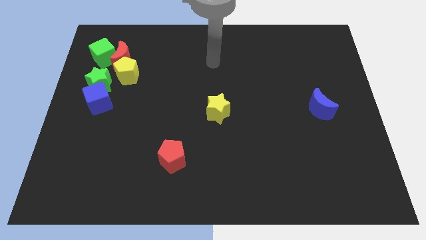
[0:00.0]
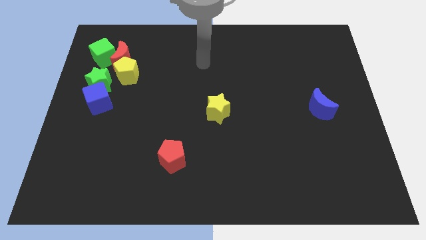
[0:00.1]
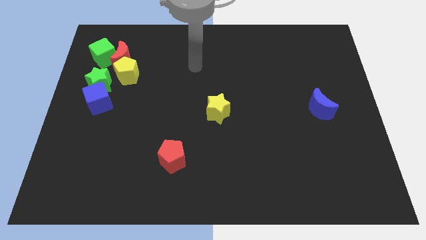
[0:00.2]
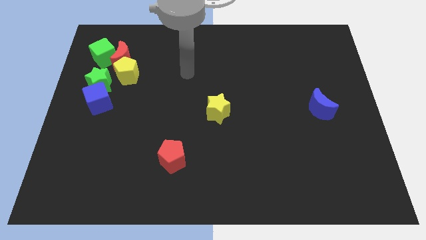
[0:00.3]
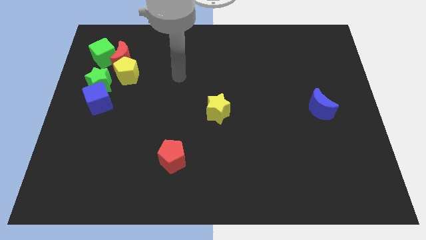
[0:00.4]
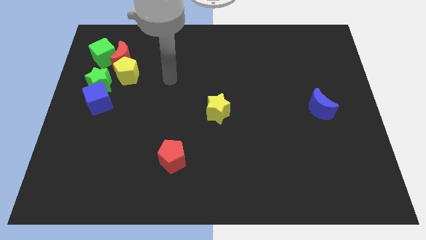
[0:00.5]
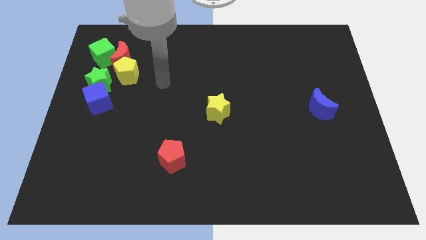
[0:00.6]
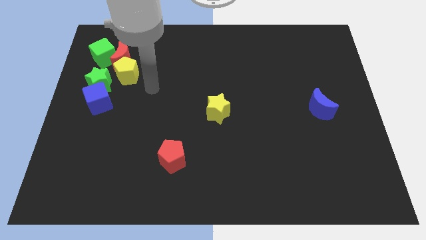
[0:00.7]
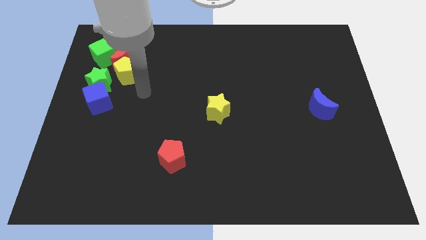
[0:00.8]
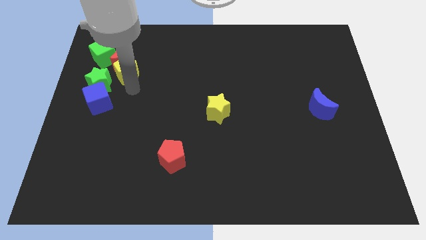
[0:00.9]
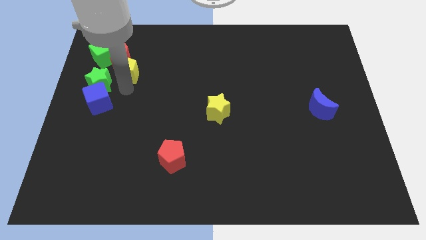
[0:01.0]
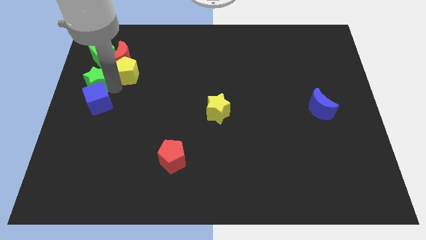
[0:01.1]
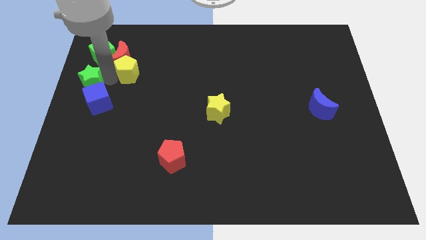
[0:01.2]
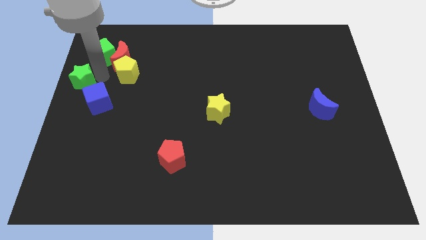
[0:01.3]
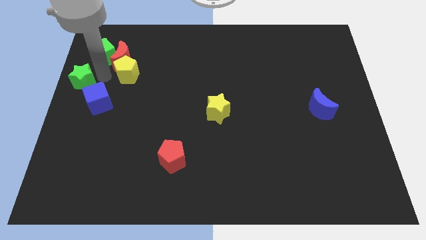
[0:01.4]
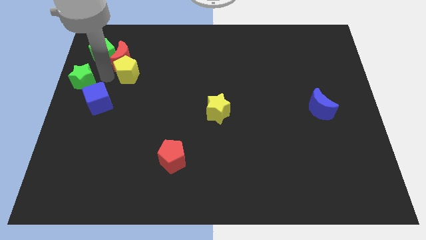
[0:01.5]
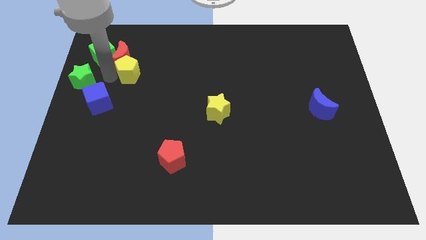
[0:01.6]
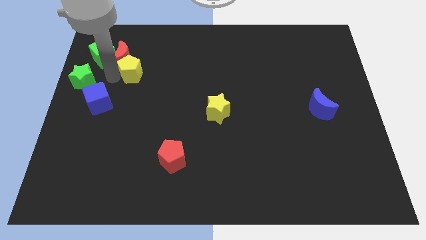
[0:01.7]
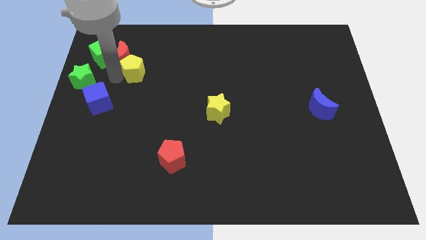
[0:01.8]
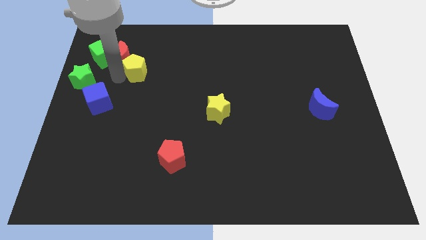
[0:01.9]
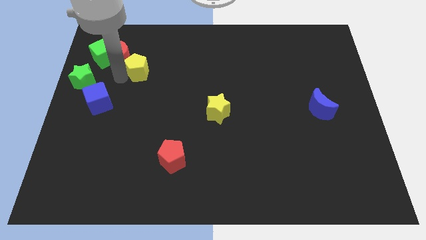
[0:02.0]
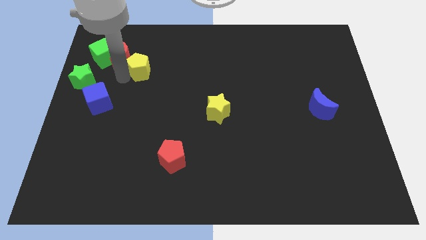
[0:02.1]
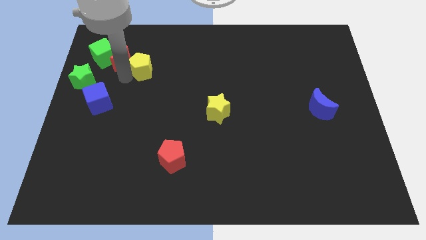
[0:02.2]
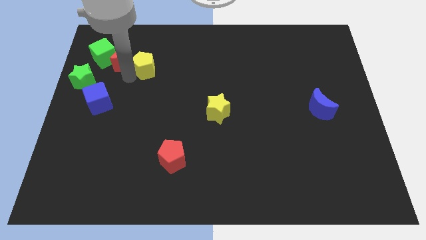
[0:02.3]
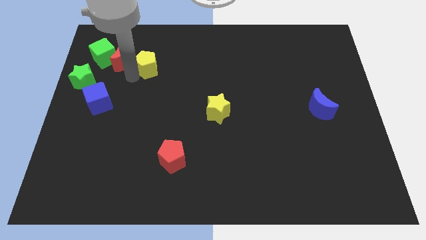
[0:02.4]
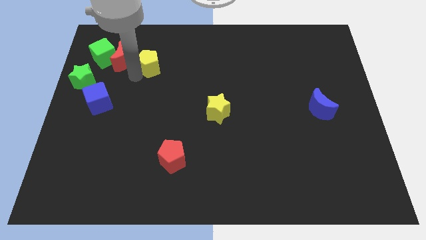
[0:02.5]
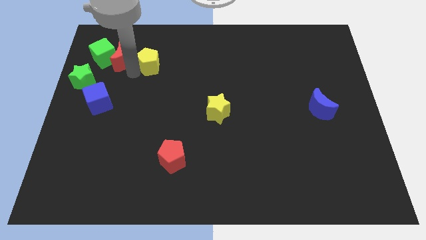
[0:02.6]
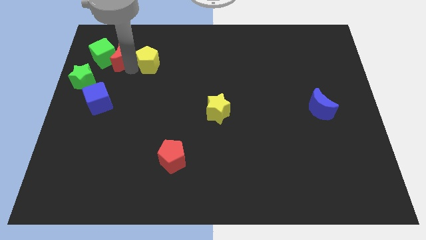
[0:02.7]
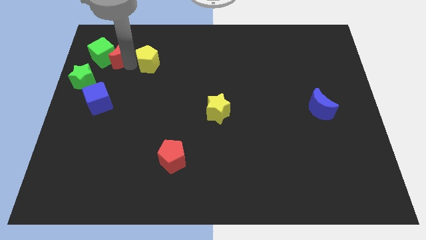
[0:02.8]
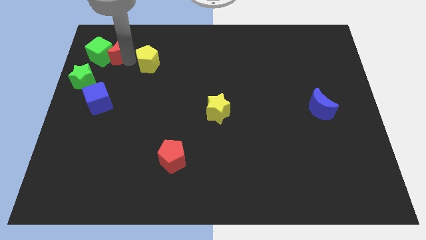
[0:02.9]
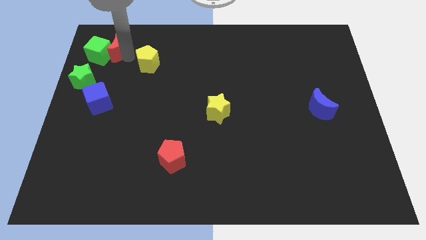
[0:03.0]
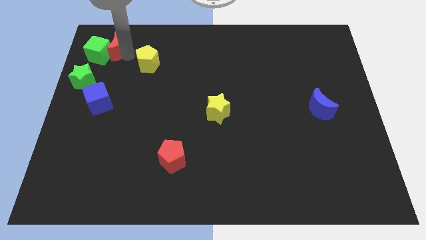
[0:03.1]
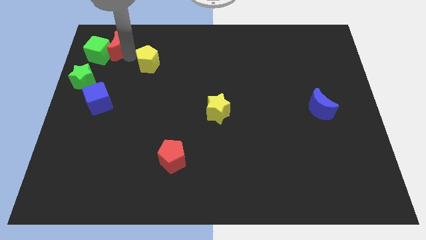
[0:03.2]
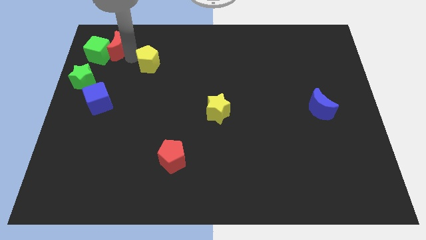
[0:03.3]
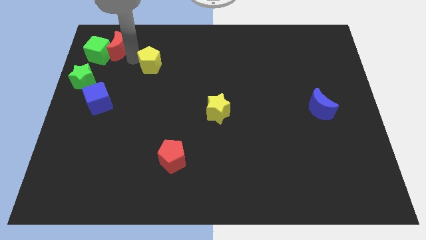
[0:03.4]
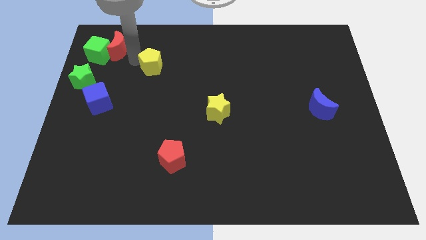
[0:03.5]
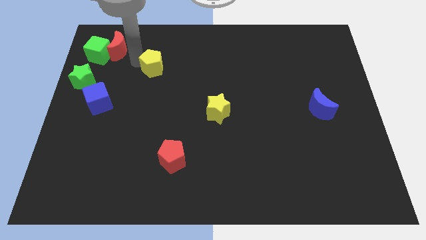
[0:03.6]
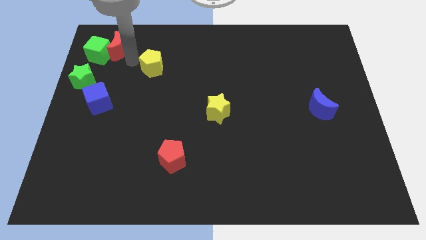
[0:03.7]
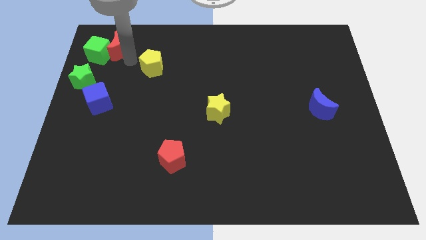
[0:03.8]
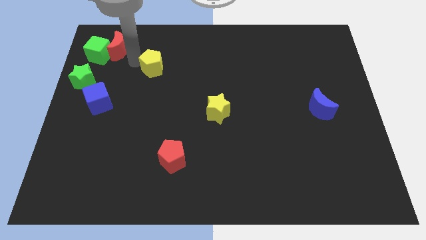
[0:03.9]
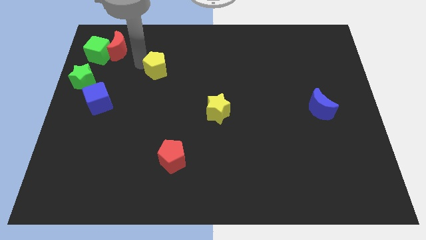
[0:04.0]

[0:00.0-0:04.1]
move the yellow pentagon a bit to the right

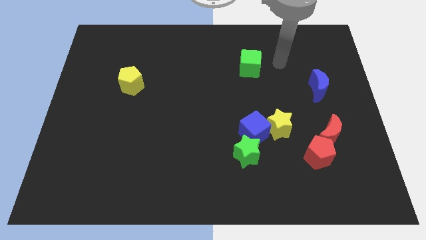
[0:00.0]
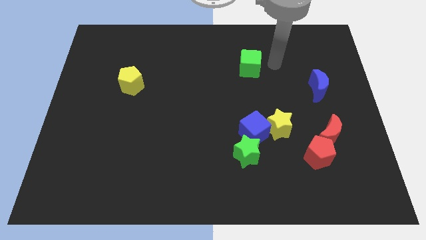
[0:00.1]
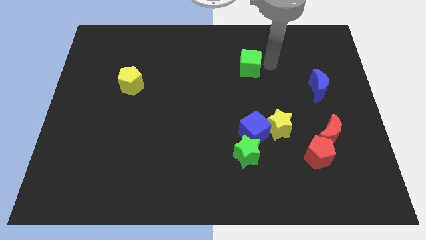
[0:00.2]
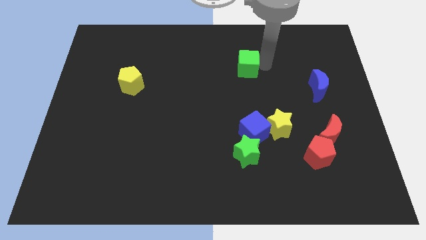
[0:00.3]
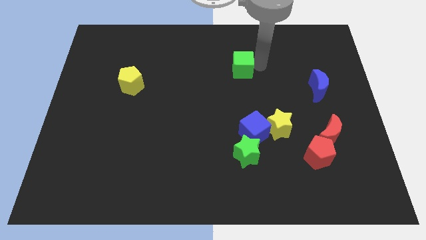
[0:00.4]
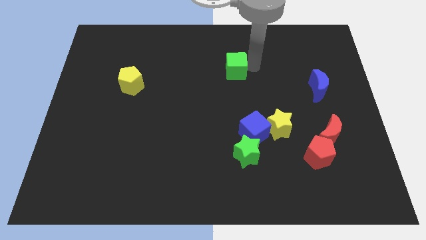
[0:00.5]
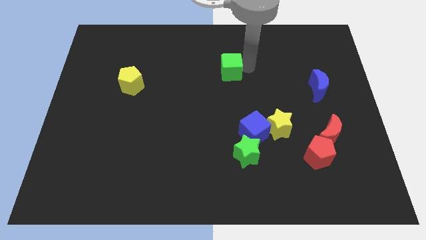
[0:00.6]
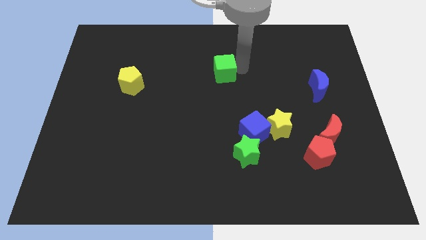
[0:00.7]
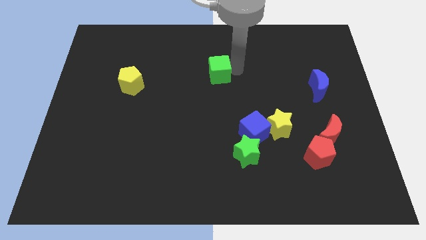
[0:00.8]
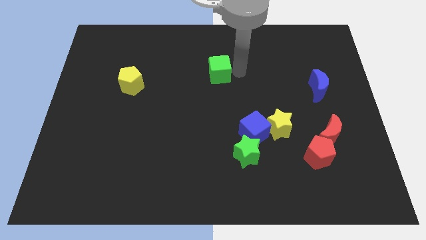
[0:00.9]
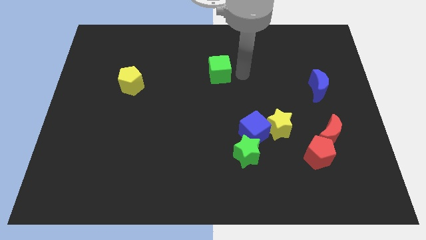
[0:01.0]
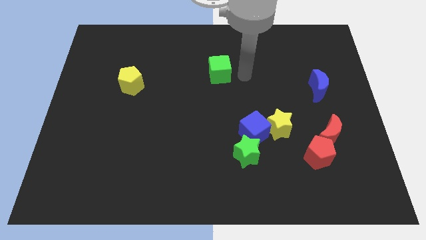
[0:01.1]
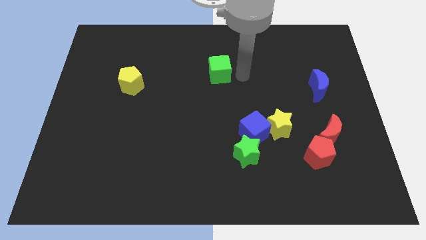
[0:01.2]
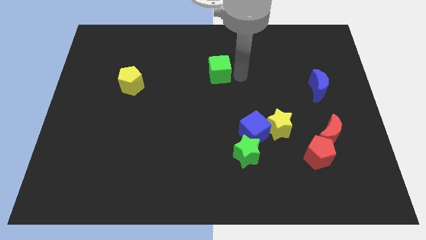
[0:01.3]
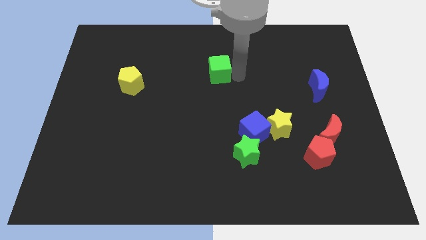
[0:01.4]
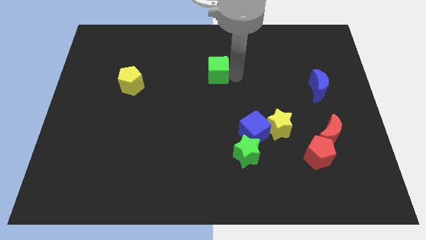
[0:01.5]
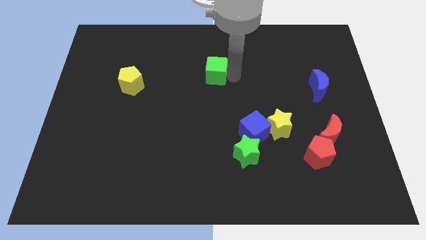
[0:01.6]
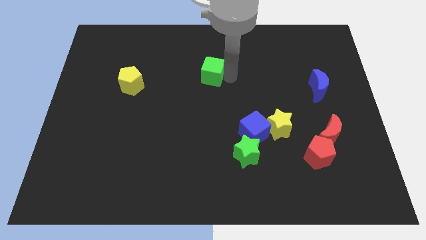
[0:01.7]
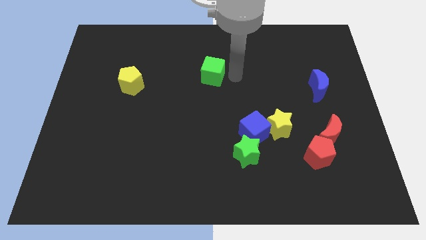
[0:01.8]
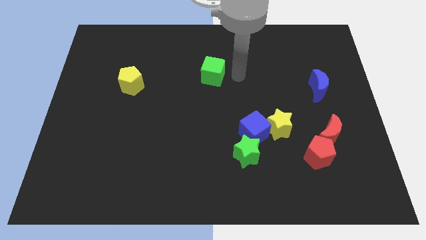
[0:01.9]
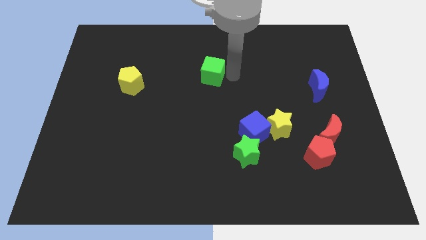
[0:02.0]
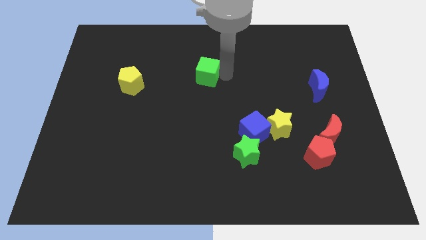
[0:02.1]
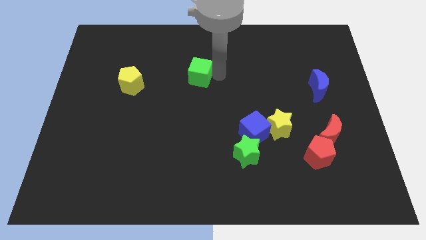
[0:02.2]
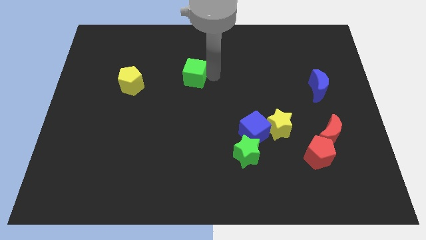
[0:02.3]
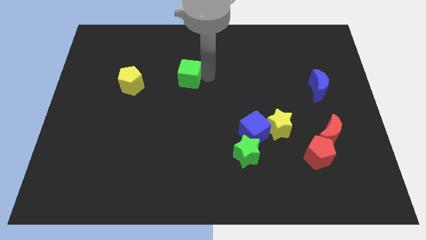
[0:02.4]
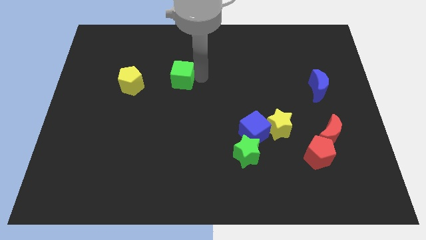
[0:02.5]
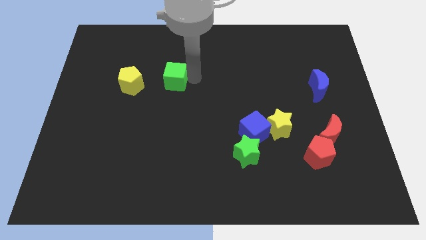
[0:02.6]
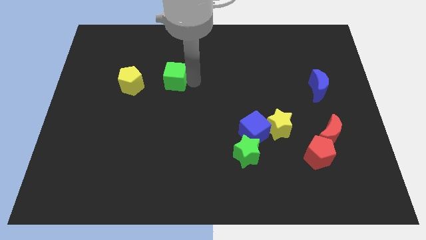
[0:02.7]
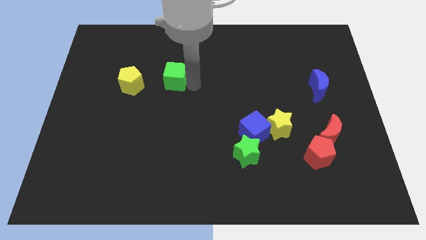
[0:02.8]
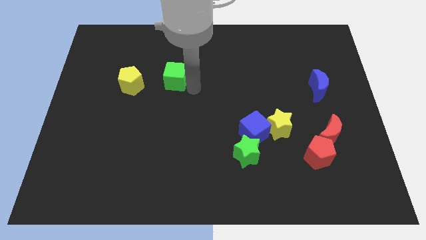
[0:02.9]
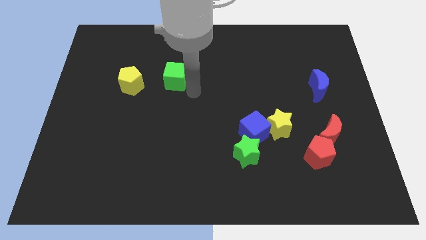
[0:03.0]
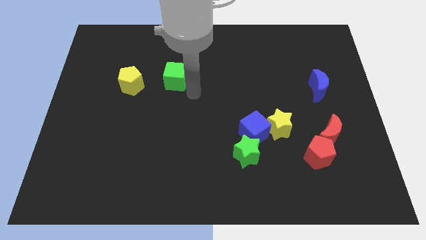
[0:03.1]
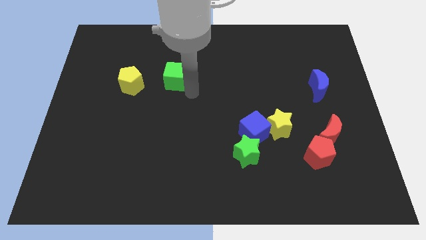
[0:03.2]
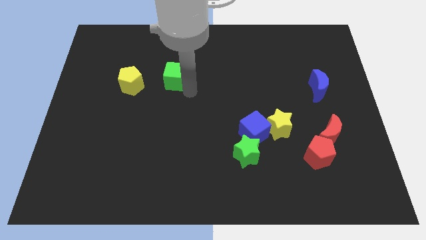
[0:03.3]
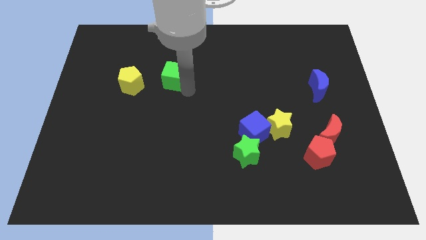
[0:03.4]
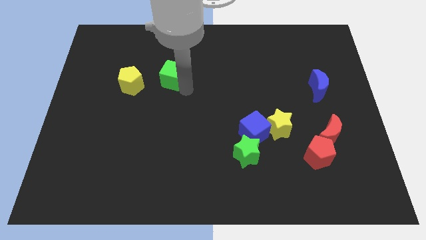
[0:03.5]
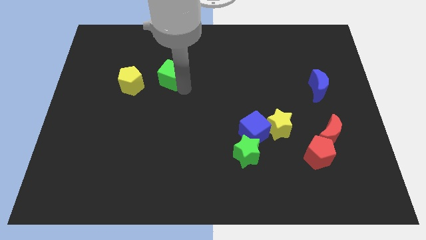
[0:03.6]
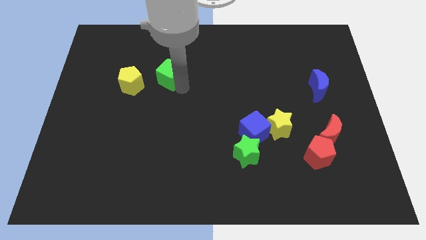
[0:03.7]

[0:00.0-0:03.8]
push the green cube to the left
